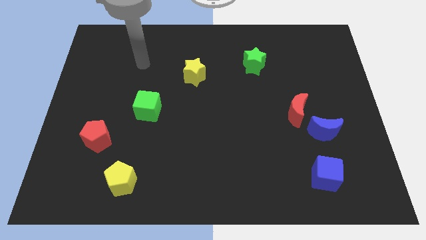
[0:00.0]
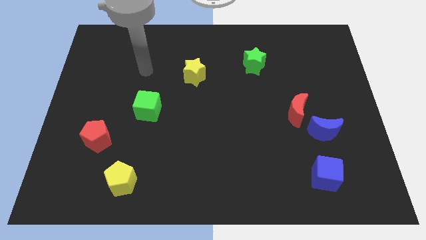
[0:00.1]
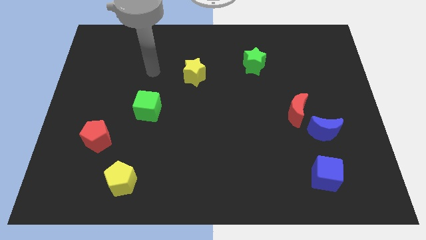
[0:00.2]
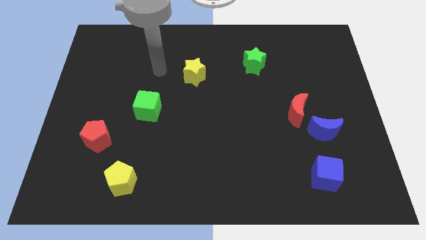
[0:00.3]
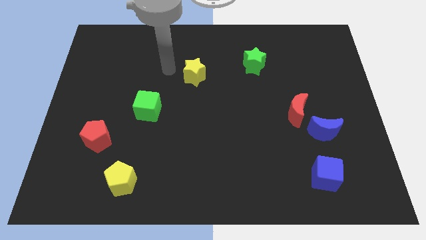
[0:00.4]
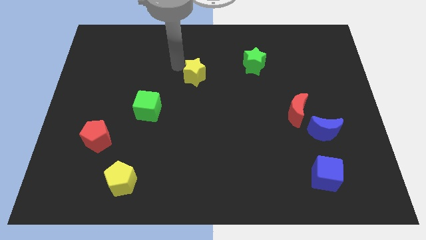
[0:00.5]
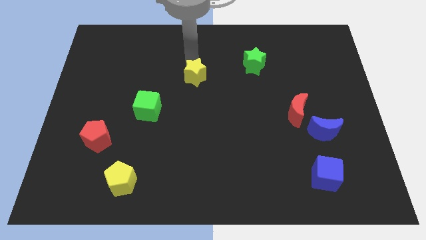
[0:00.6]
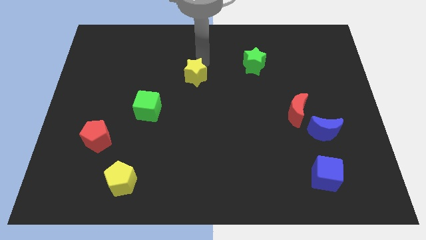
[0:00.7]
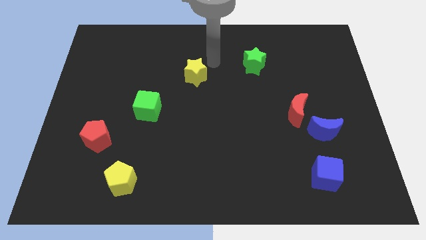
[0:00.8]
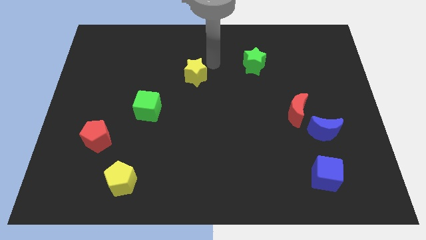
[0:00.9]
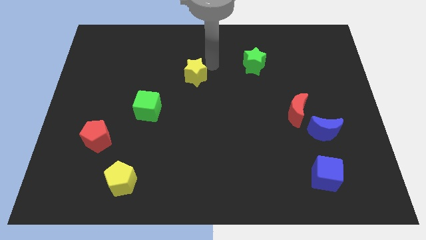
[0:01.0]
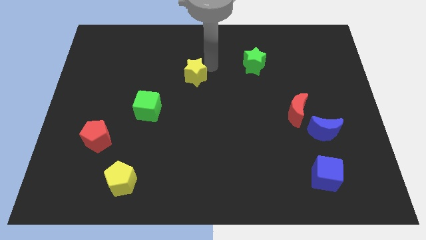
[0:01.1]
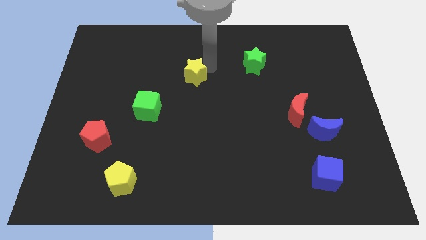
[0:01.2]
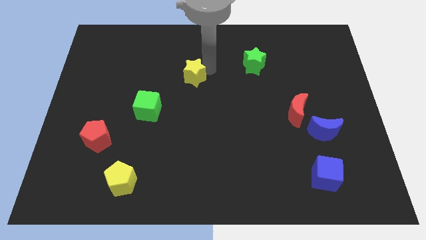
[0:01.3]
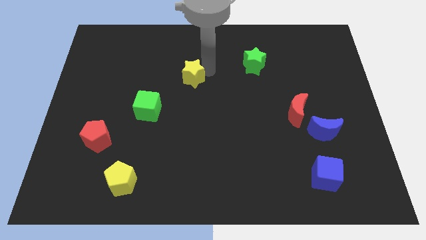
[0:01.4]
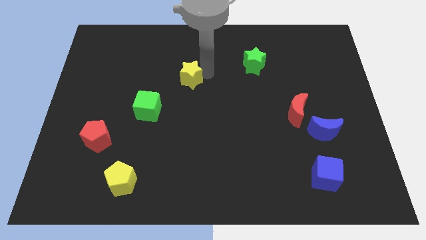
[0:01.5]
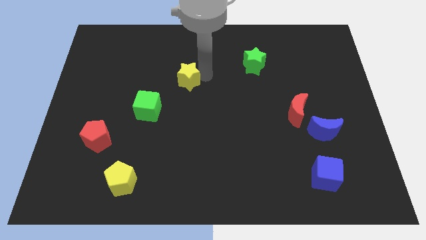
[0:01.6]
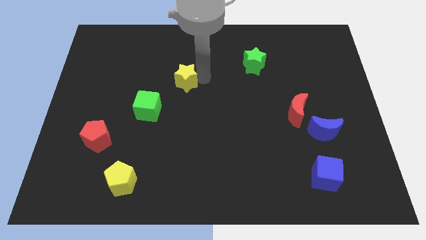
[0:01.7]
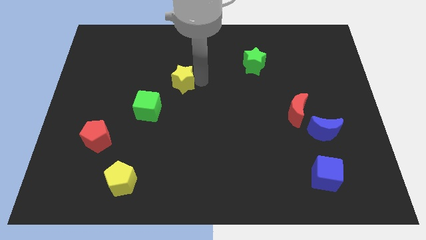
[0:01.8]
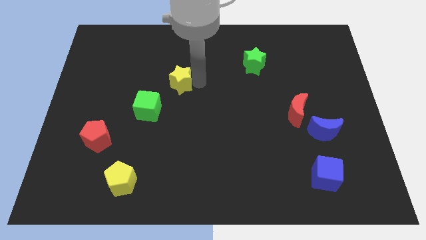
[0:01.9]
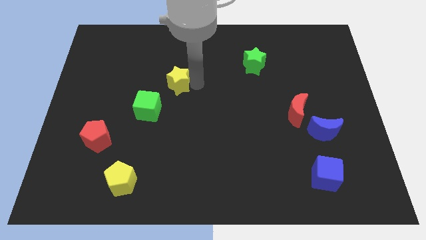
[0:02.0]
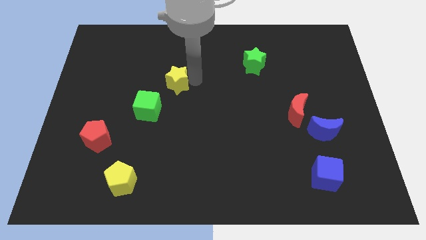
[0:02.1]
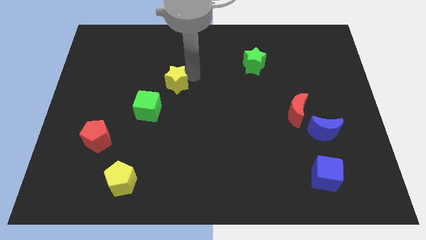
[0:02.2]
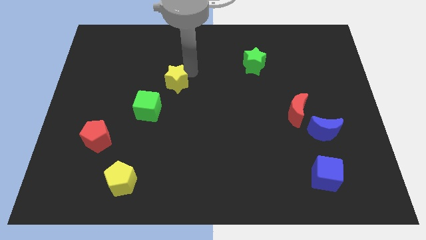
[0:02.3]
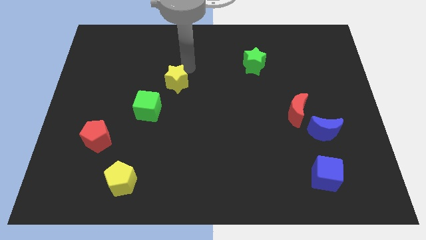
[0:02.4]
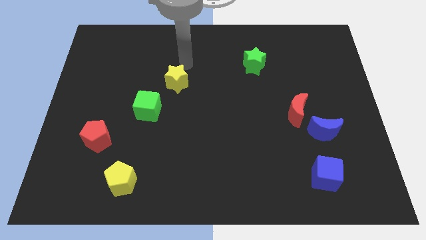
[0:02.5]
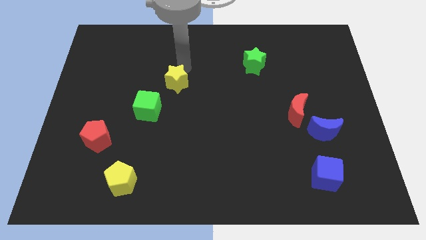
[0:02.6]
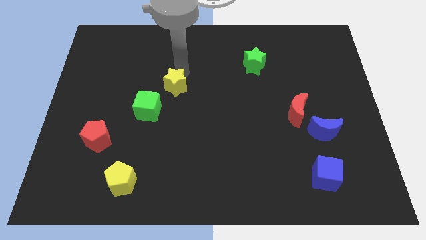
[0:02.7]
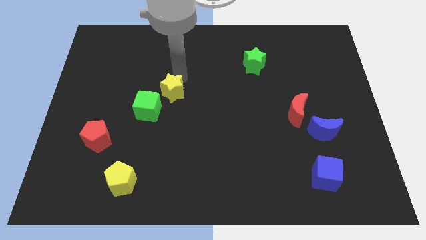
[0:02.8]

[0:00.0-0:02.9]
push the yellow star a little diagonally down and to the left

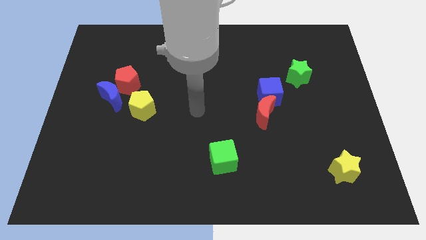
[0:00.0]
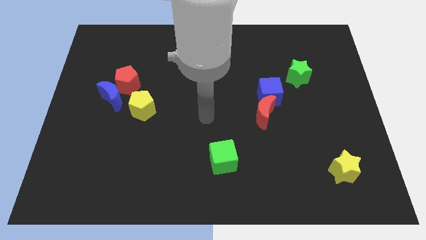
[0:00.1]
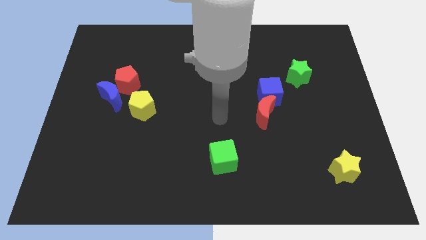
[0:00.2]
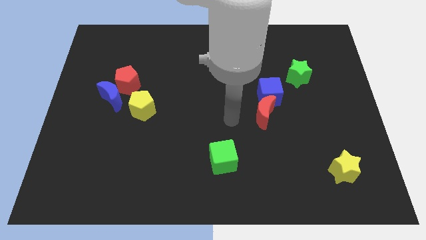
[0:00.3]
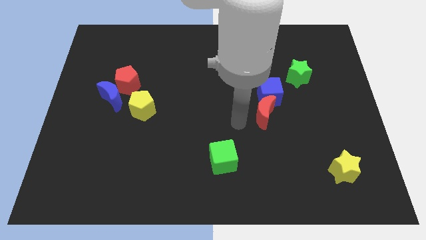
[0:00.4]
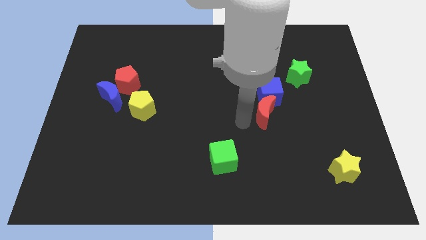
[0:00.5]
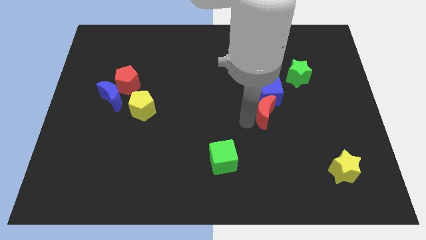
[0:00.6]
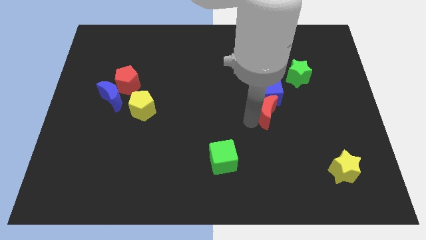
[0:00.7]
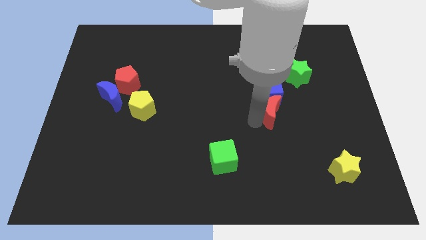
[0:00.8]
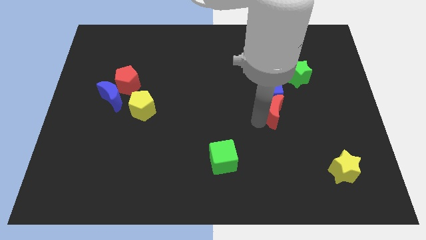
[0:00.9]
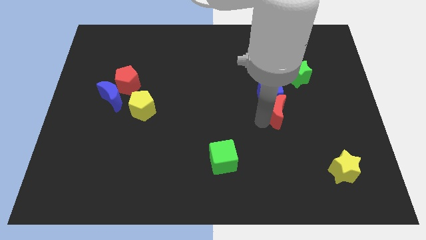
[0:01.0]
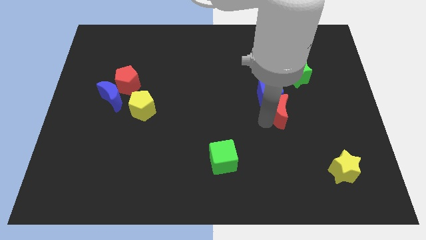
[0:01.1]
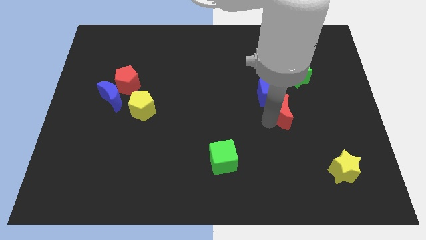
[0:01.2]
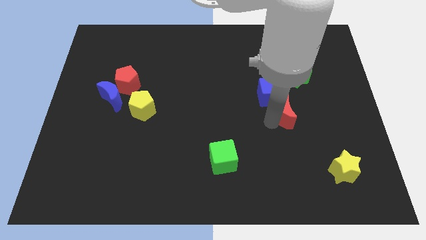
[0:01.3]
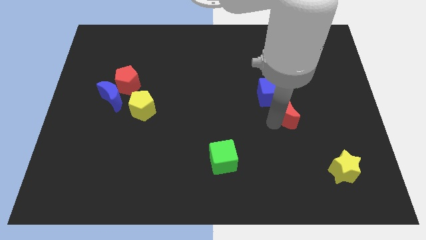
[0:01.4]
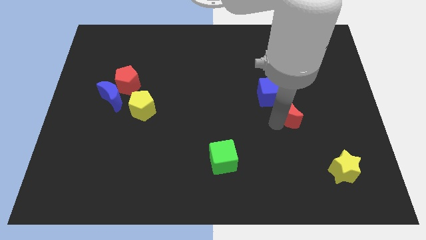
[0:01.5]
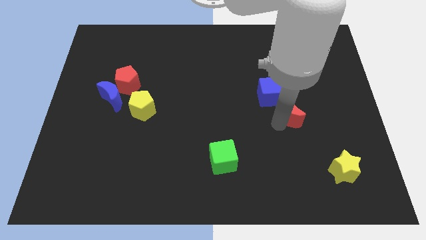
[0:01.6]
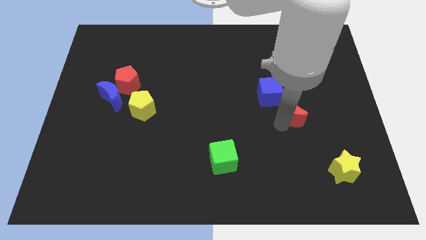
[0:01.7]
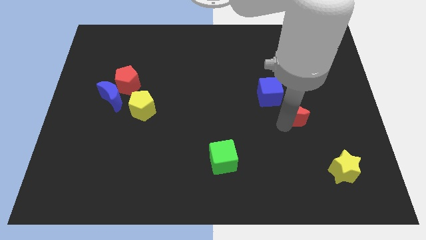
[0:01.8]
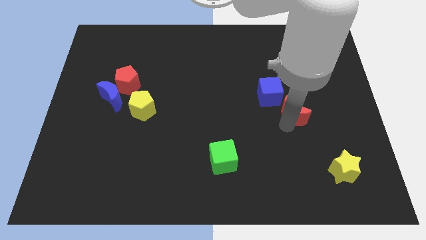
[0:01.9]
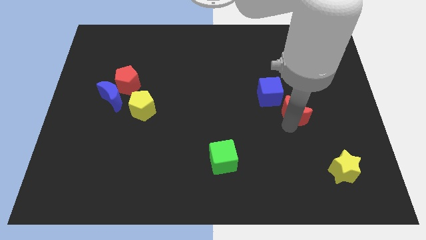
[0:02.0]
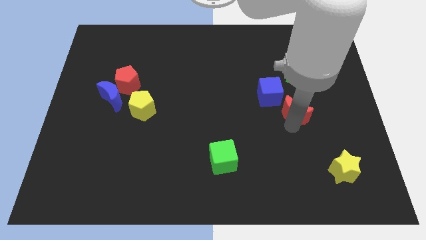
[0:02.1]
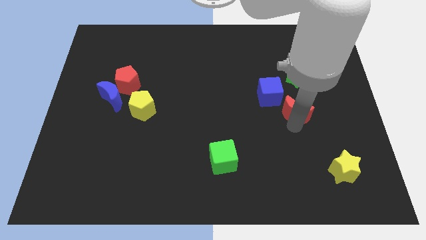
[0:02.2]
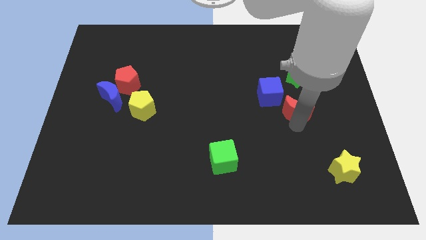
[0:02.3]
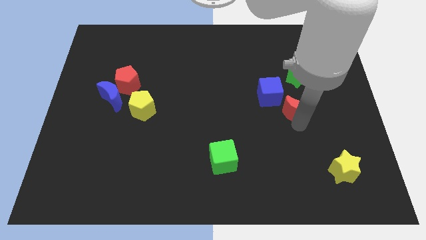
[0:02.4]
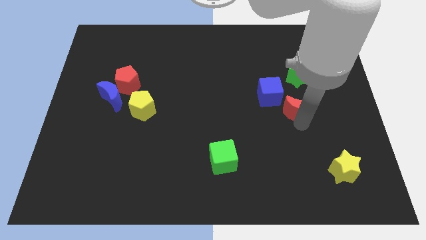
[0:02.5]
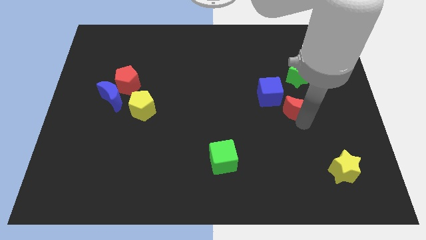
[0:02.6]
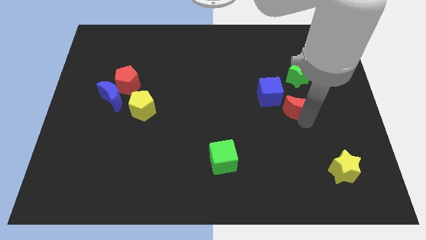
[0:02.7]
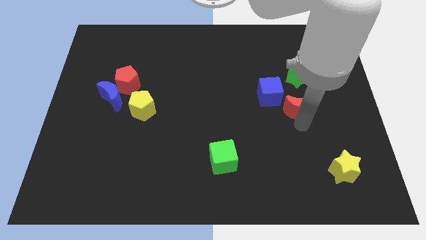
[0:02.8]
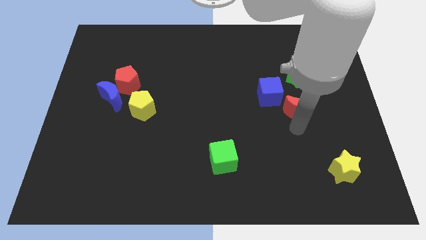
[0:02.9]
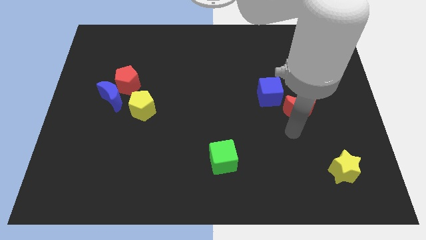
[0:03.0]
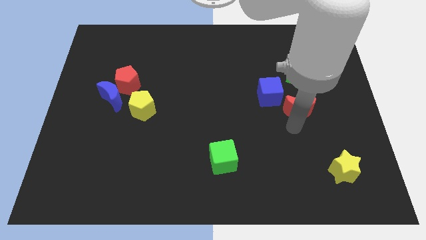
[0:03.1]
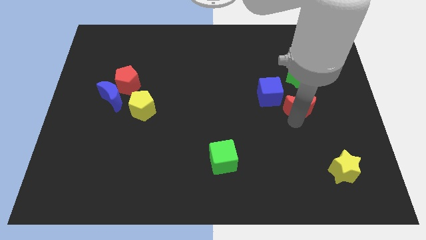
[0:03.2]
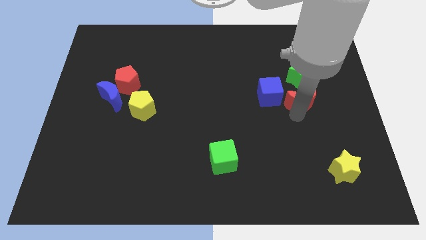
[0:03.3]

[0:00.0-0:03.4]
move the red moon somewhat upwards and then right

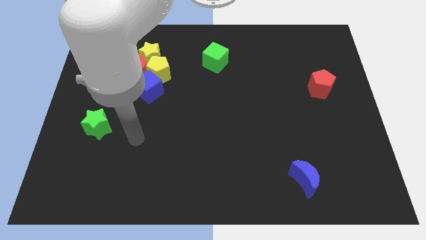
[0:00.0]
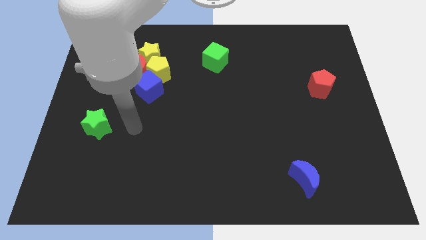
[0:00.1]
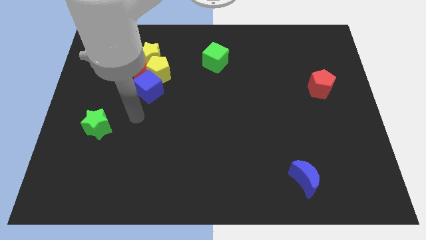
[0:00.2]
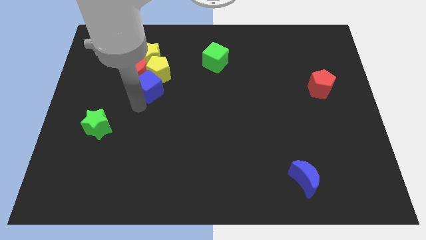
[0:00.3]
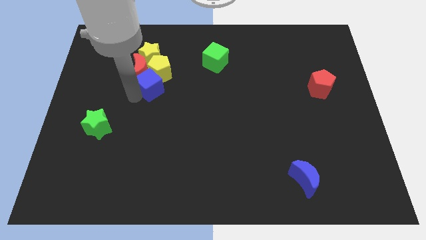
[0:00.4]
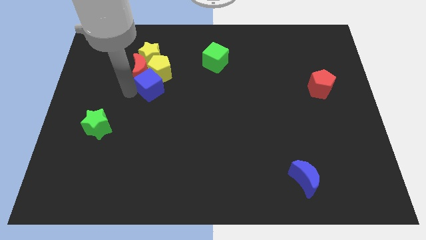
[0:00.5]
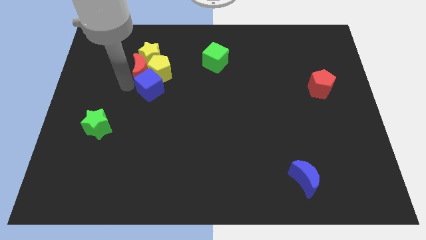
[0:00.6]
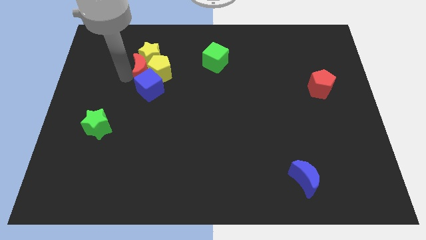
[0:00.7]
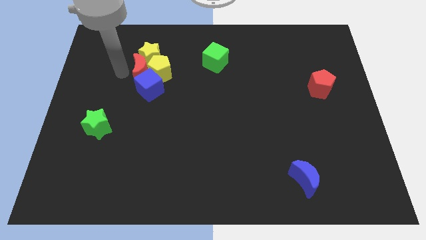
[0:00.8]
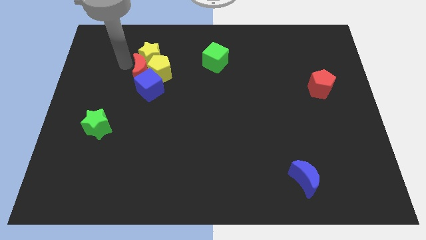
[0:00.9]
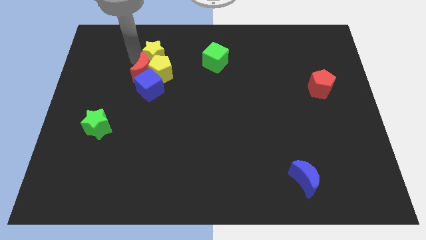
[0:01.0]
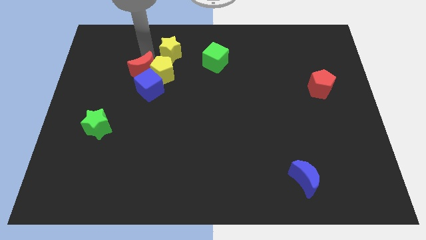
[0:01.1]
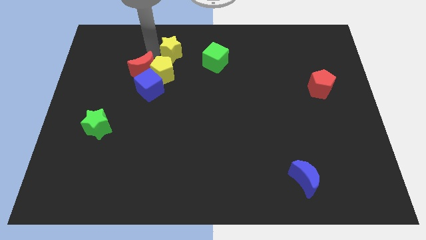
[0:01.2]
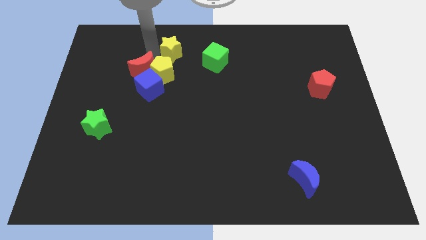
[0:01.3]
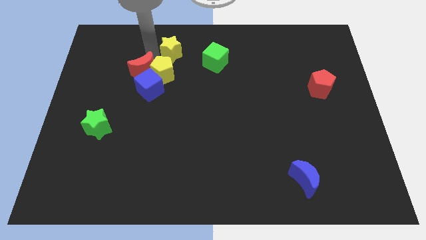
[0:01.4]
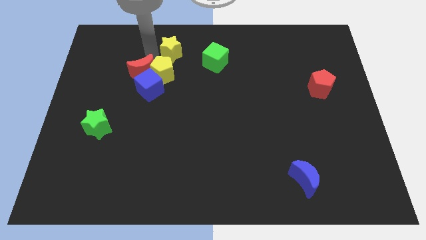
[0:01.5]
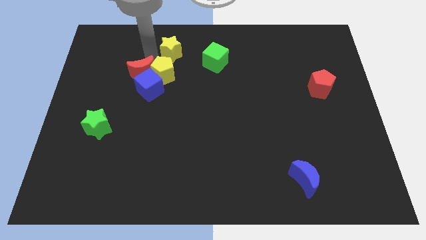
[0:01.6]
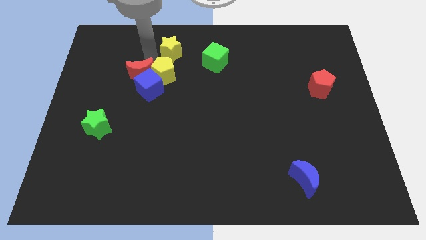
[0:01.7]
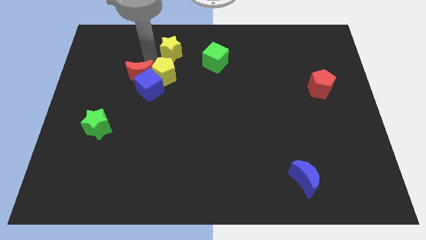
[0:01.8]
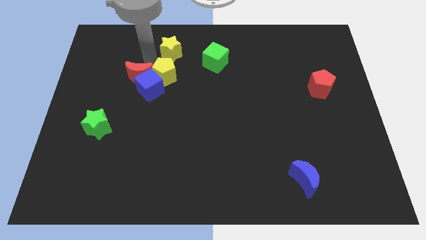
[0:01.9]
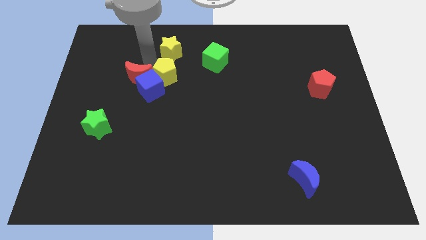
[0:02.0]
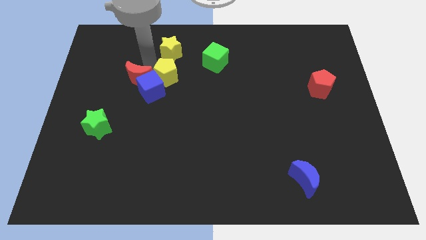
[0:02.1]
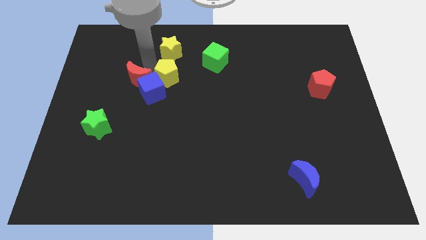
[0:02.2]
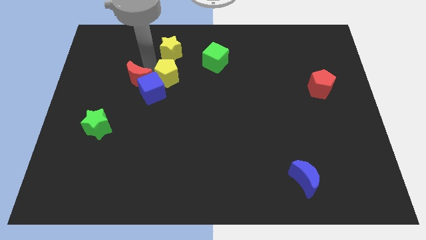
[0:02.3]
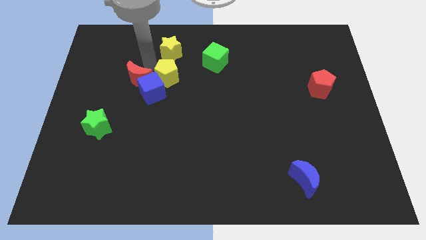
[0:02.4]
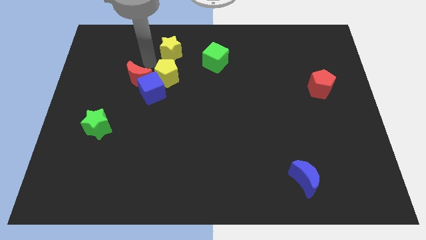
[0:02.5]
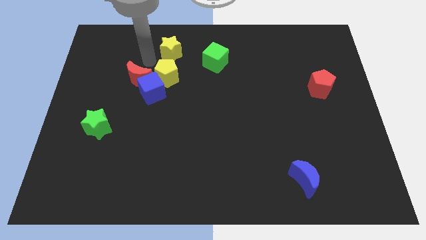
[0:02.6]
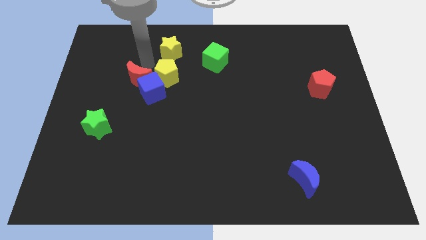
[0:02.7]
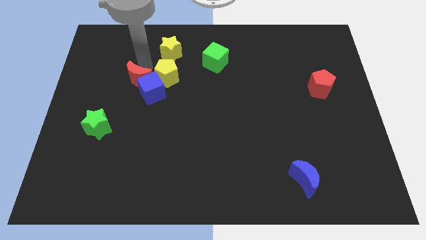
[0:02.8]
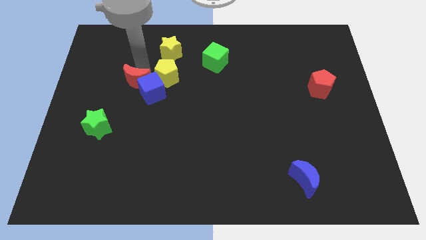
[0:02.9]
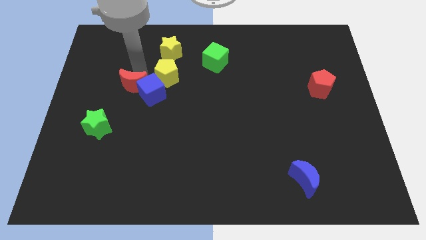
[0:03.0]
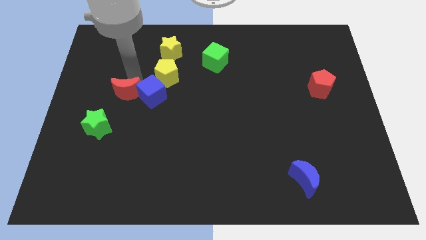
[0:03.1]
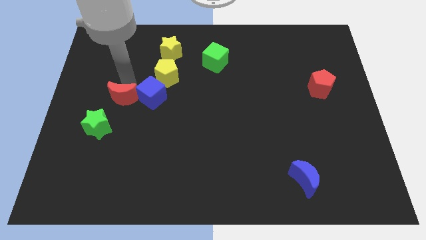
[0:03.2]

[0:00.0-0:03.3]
move the red moon down slightly
